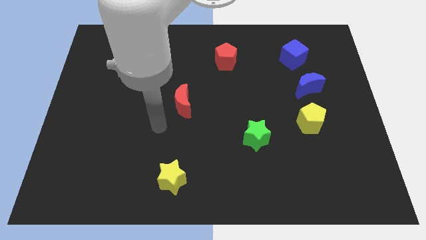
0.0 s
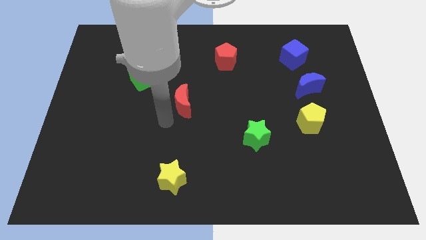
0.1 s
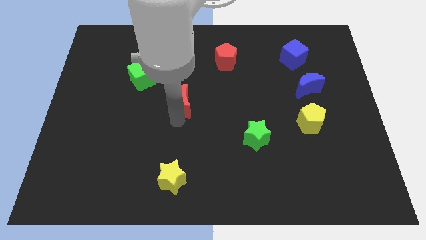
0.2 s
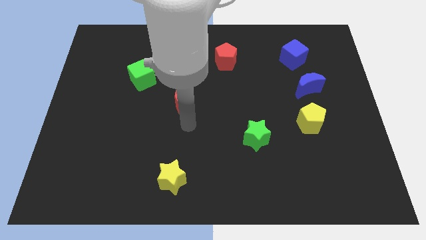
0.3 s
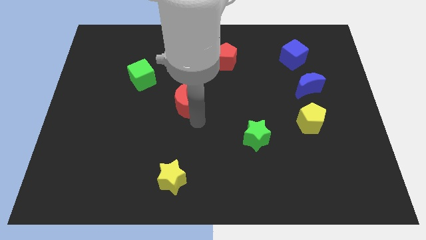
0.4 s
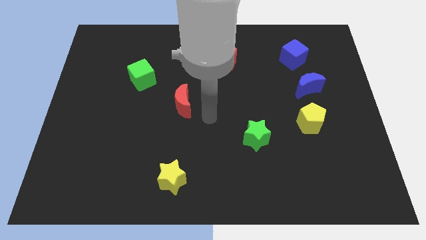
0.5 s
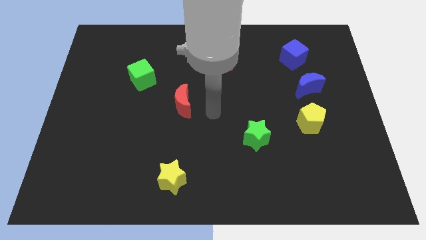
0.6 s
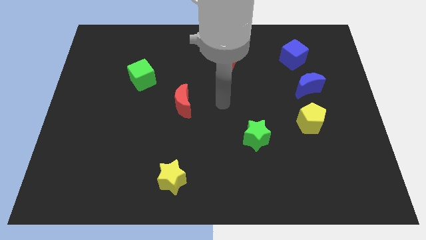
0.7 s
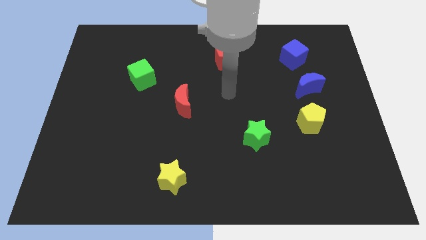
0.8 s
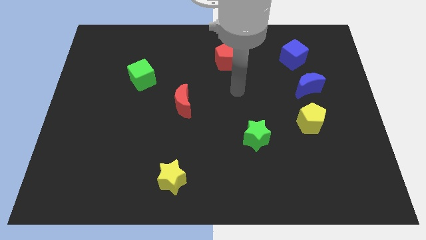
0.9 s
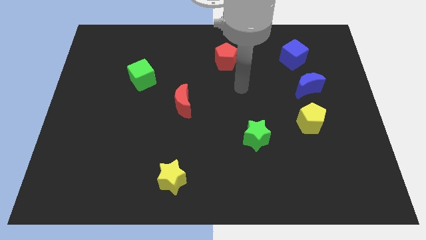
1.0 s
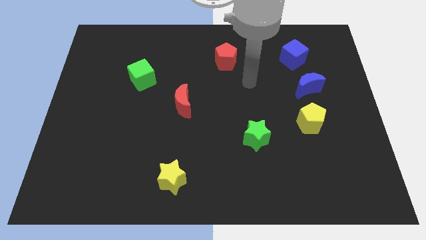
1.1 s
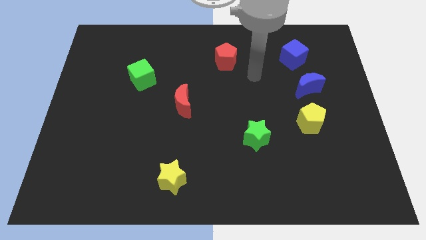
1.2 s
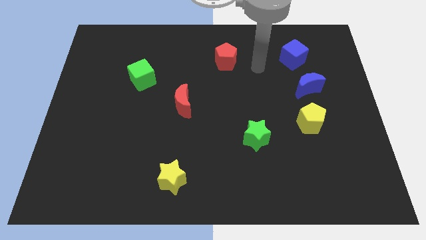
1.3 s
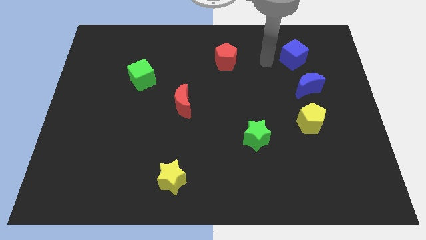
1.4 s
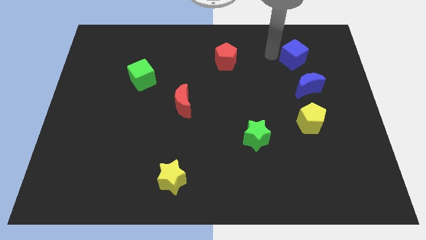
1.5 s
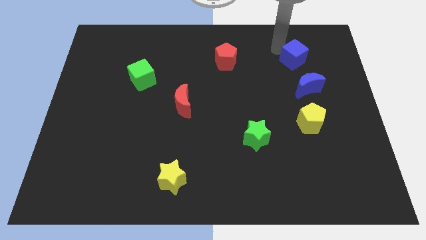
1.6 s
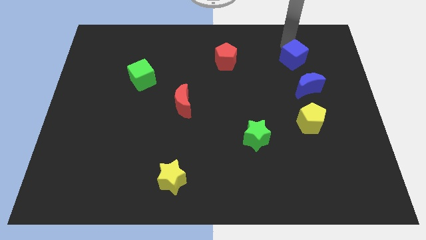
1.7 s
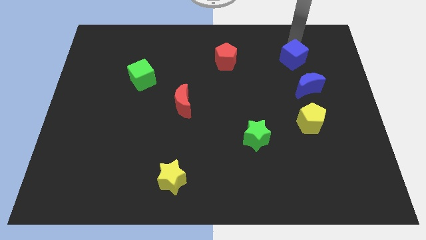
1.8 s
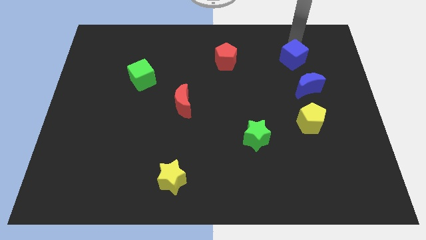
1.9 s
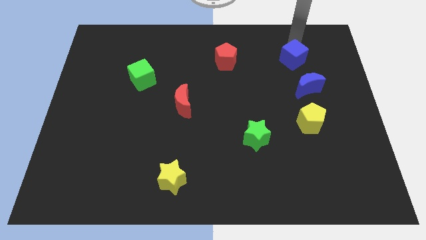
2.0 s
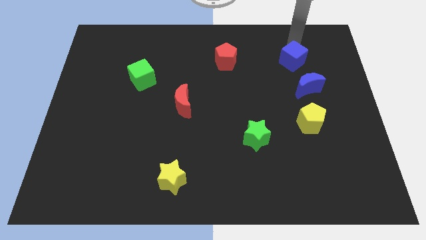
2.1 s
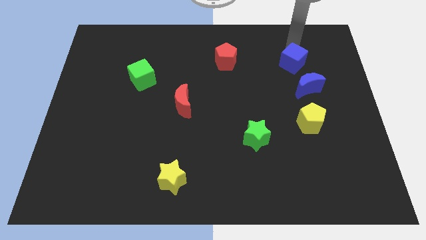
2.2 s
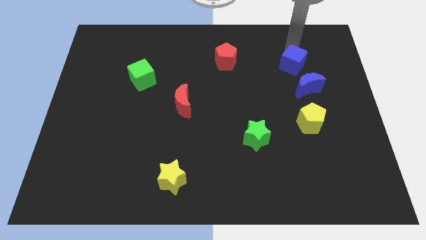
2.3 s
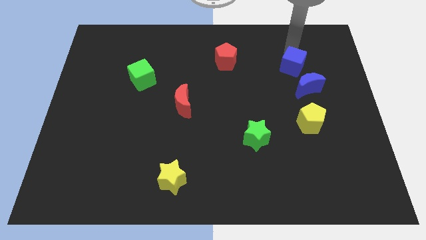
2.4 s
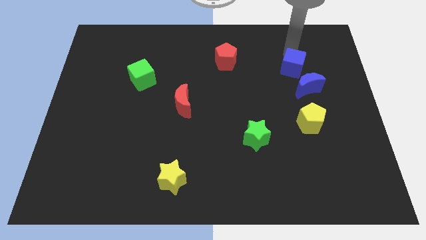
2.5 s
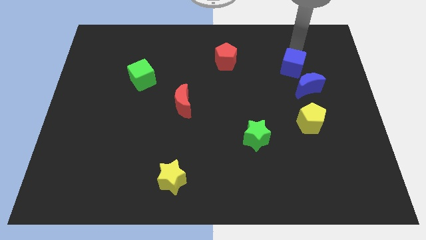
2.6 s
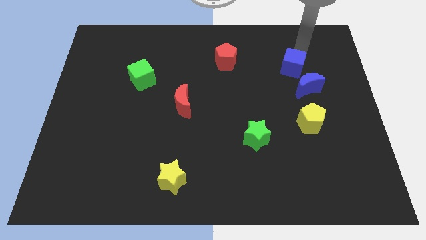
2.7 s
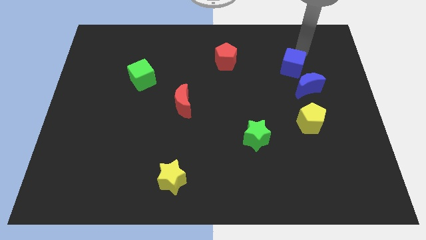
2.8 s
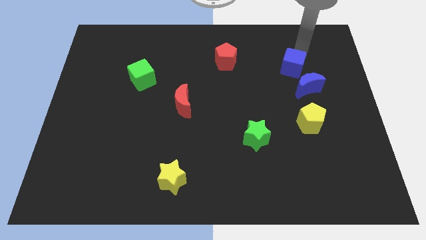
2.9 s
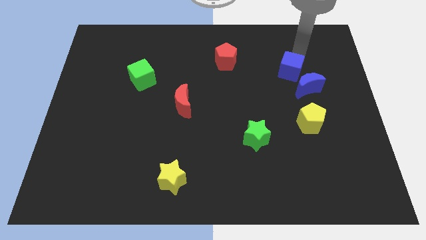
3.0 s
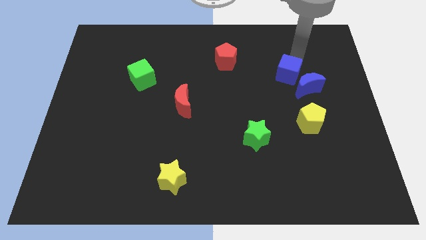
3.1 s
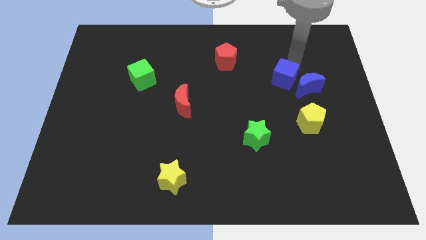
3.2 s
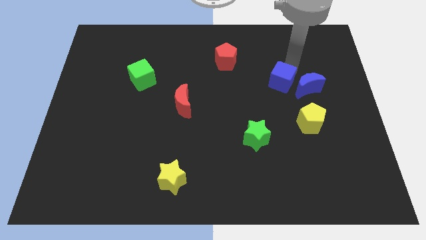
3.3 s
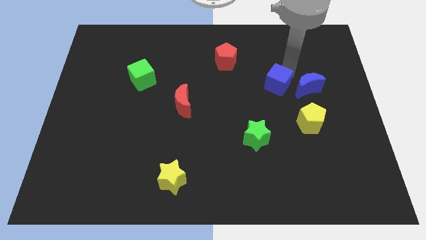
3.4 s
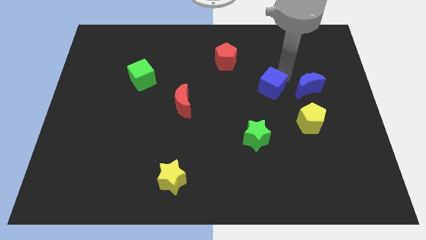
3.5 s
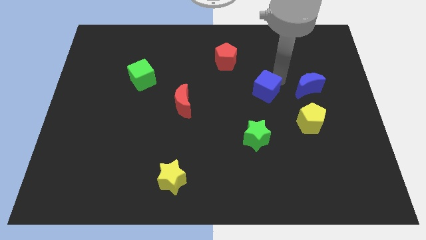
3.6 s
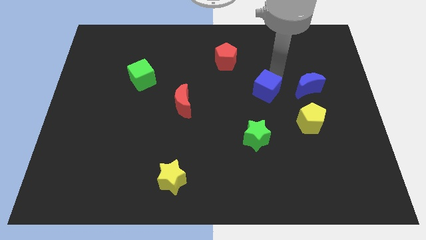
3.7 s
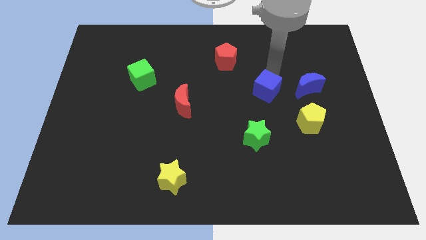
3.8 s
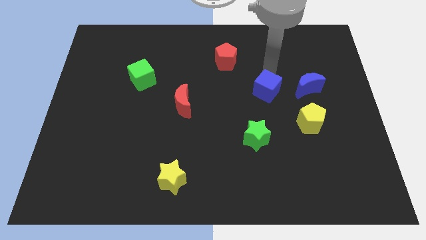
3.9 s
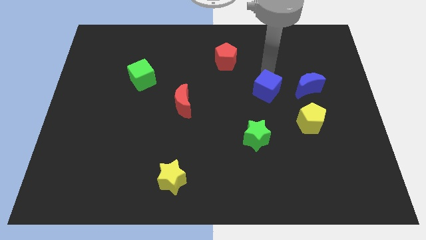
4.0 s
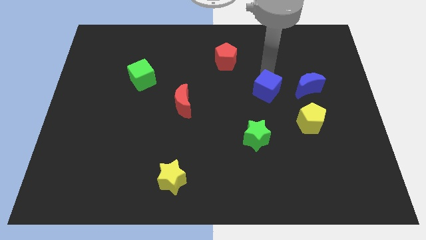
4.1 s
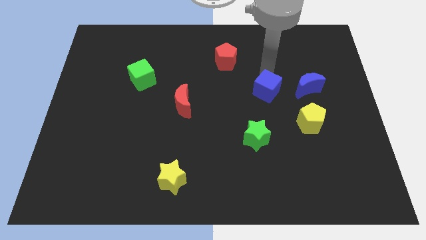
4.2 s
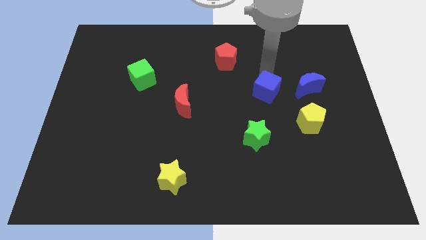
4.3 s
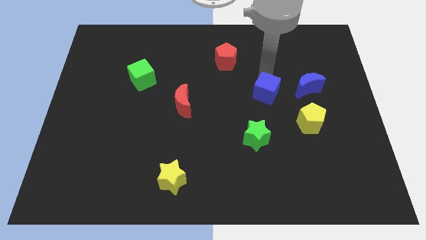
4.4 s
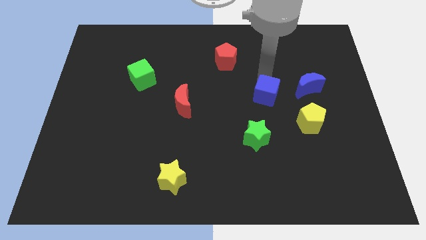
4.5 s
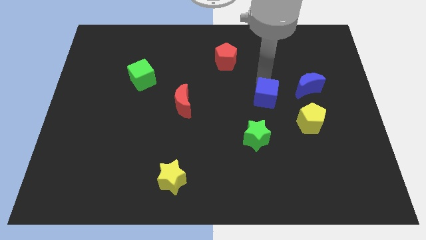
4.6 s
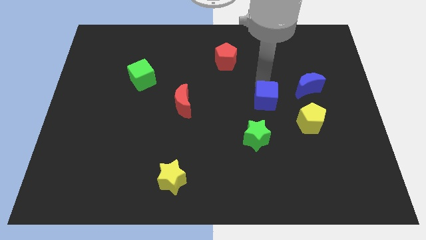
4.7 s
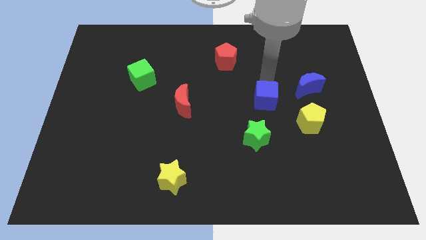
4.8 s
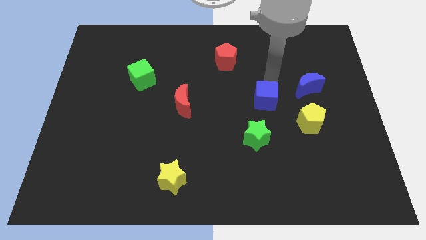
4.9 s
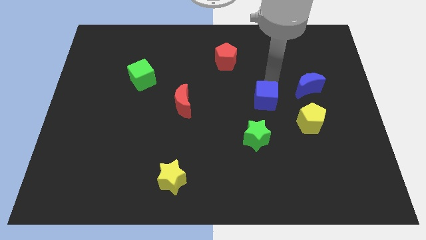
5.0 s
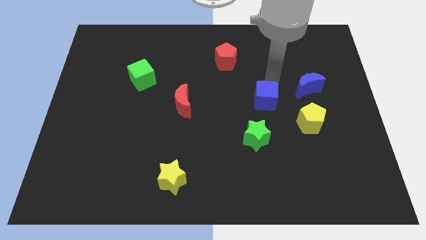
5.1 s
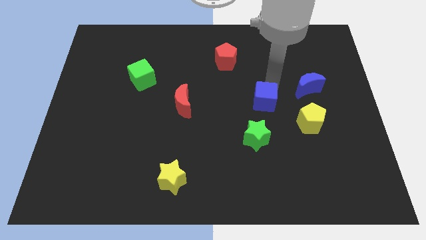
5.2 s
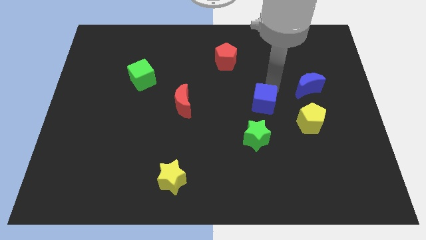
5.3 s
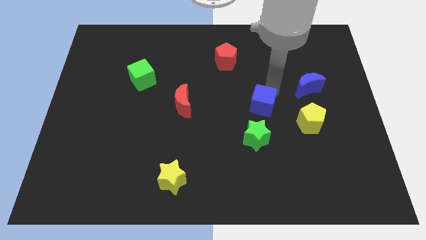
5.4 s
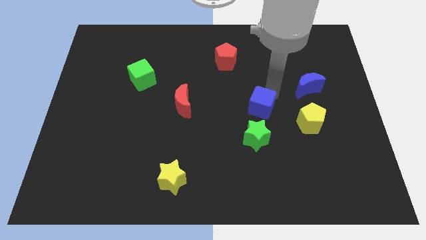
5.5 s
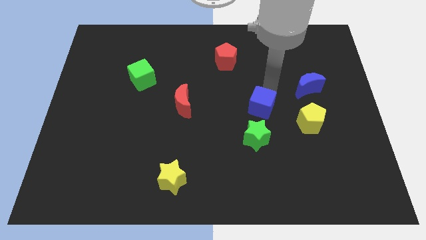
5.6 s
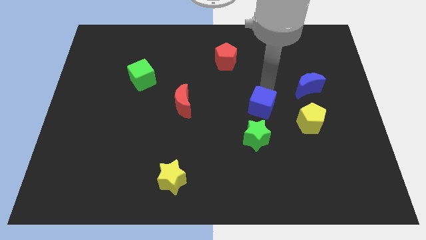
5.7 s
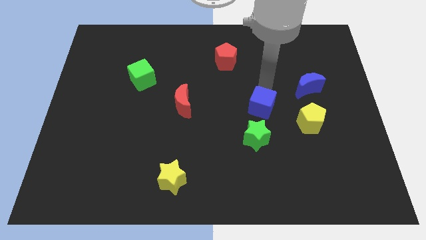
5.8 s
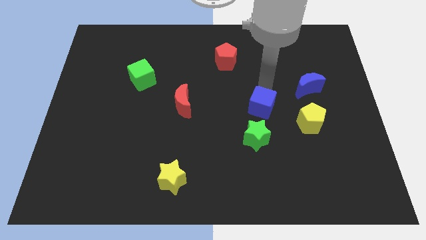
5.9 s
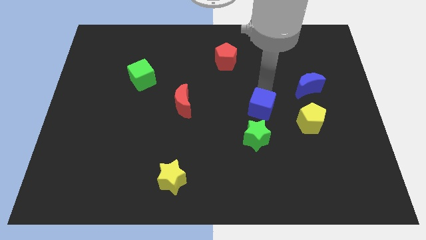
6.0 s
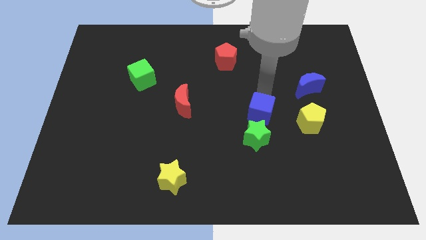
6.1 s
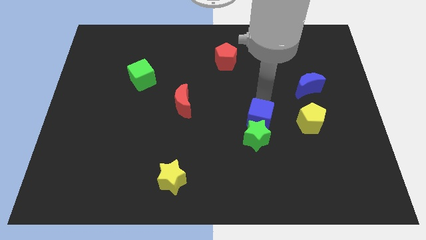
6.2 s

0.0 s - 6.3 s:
move the blue cube to the green star
